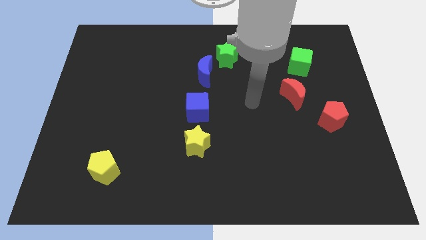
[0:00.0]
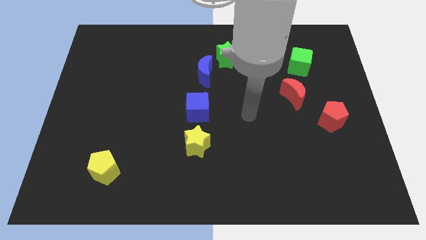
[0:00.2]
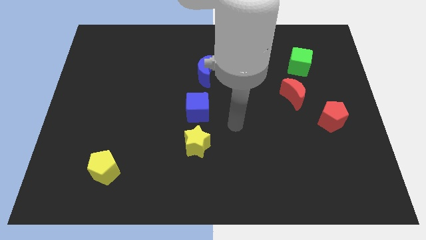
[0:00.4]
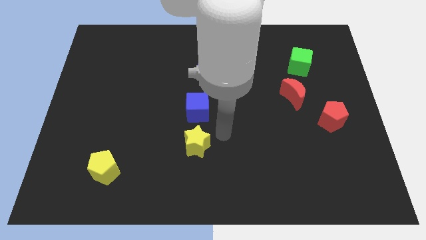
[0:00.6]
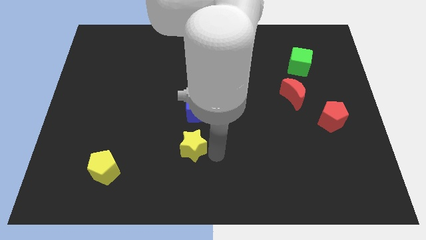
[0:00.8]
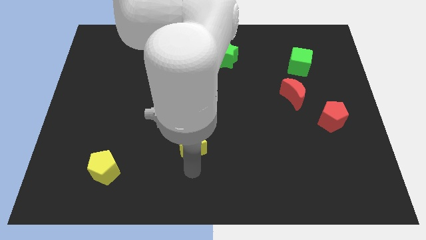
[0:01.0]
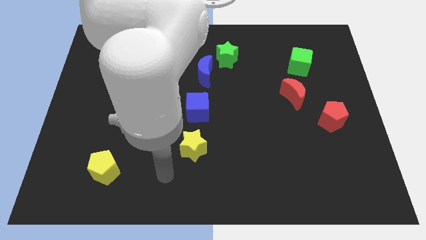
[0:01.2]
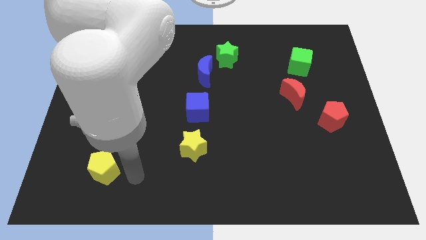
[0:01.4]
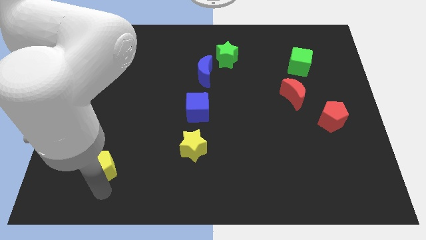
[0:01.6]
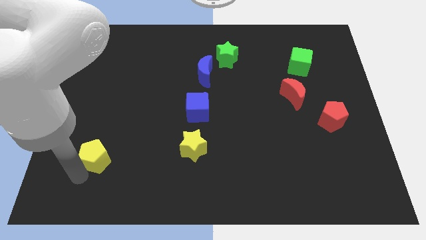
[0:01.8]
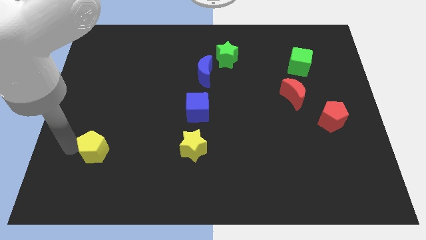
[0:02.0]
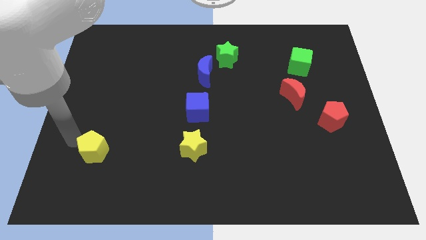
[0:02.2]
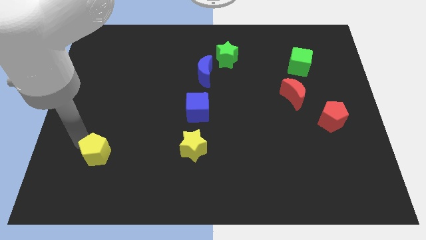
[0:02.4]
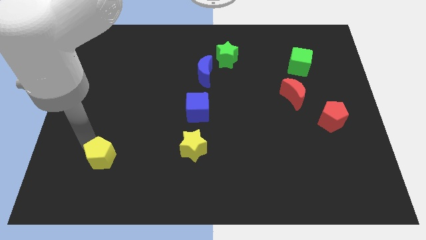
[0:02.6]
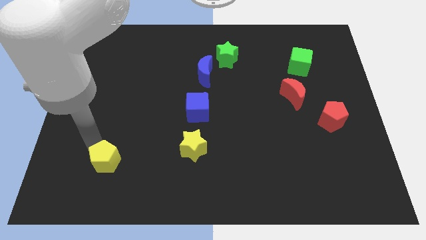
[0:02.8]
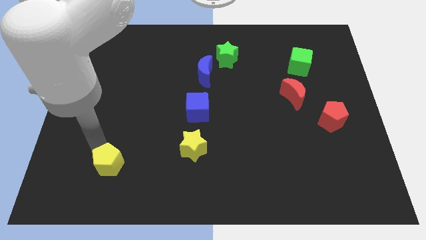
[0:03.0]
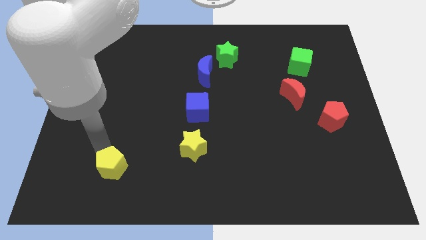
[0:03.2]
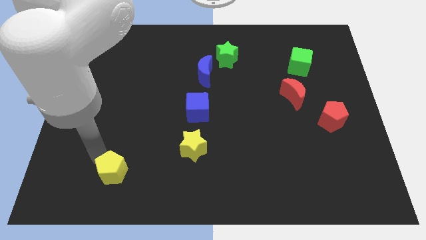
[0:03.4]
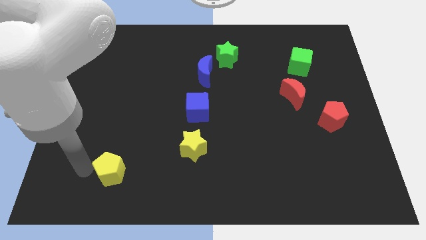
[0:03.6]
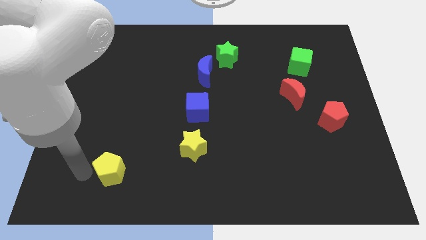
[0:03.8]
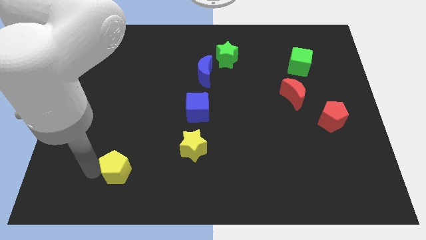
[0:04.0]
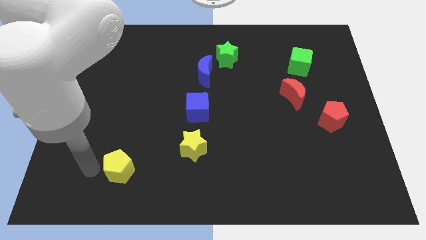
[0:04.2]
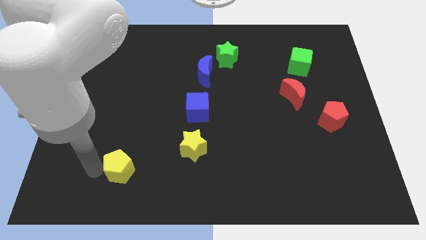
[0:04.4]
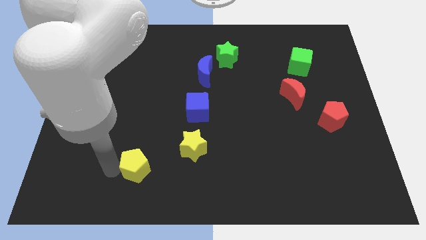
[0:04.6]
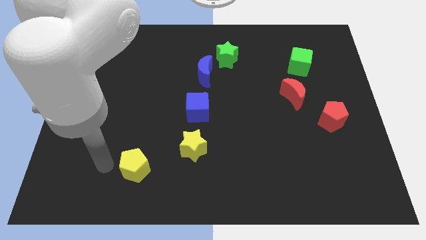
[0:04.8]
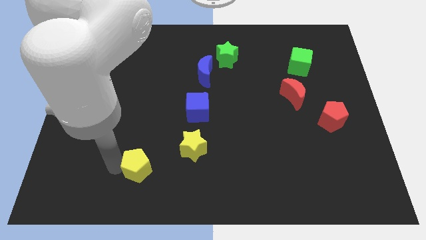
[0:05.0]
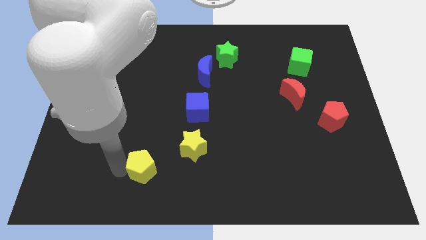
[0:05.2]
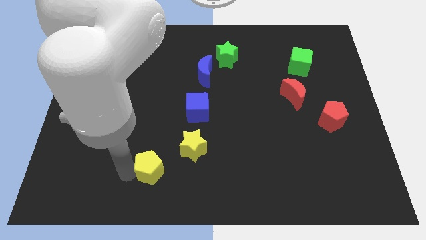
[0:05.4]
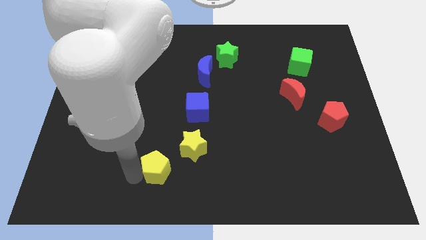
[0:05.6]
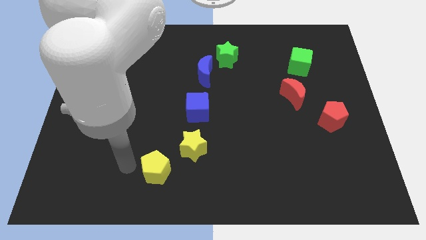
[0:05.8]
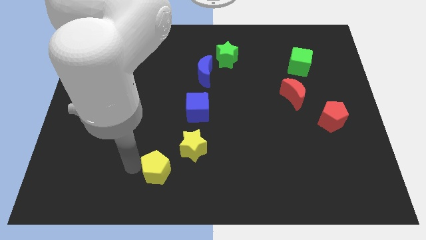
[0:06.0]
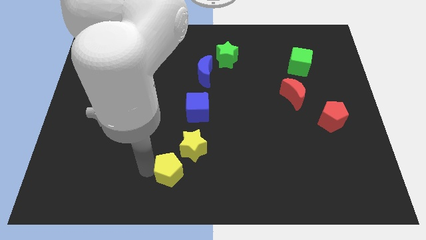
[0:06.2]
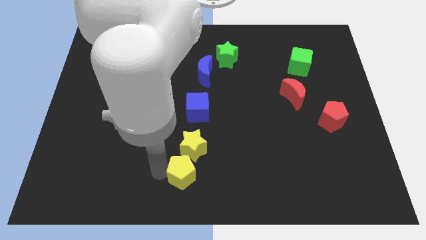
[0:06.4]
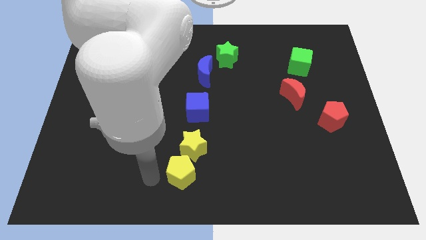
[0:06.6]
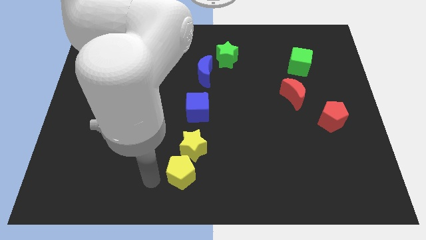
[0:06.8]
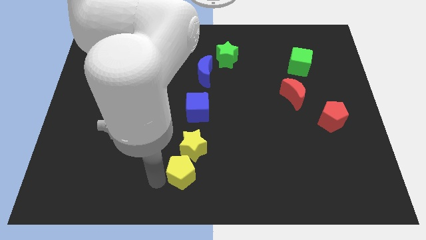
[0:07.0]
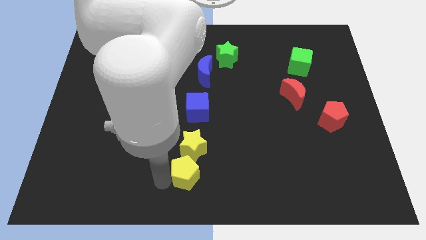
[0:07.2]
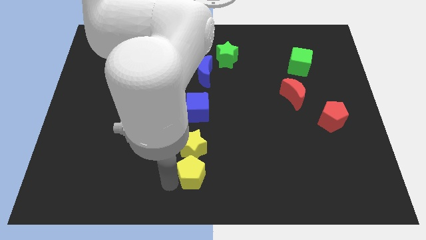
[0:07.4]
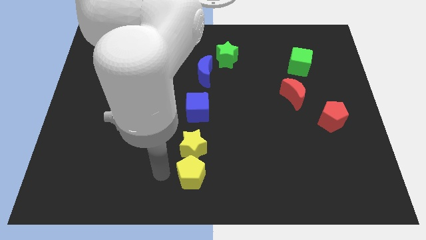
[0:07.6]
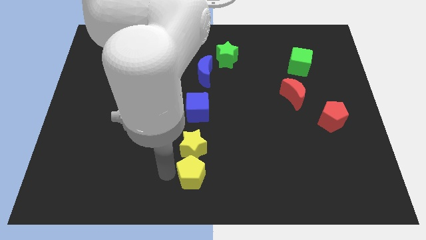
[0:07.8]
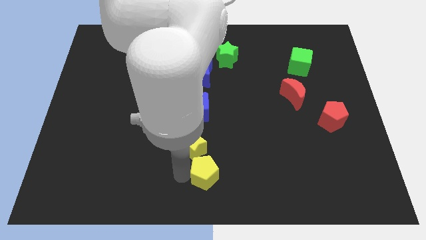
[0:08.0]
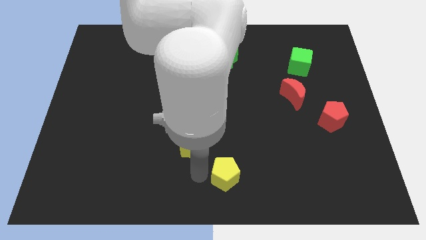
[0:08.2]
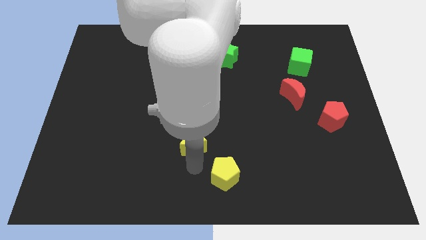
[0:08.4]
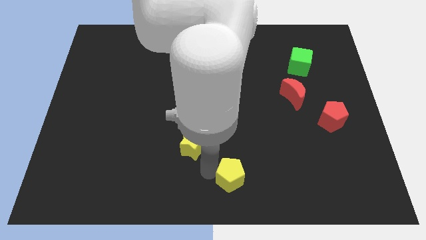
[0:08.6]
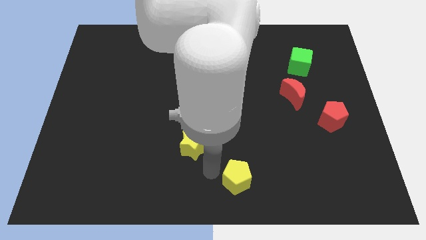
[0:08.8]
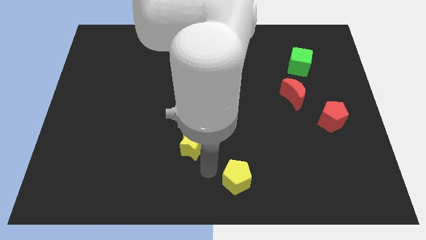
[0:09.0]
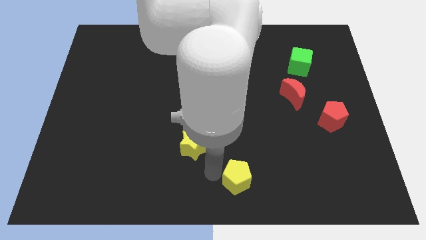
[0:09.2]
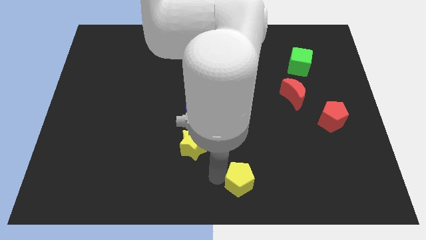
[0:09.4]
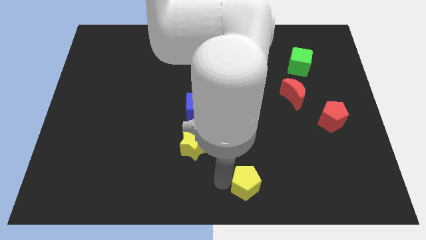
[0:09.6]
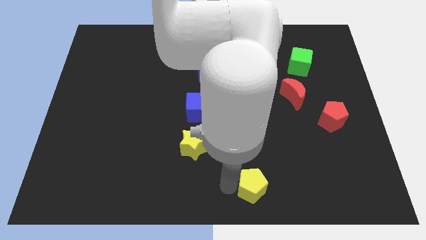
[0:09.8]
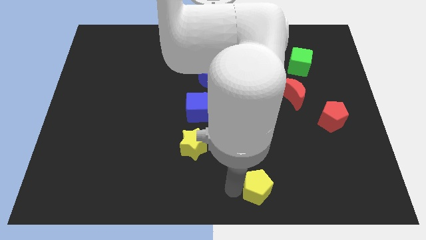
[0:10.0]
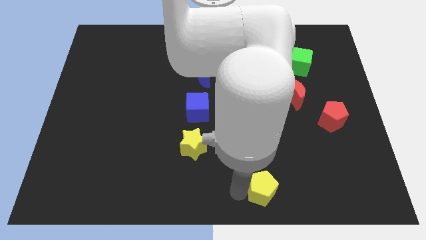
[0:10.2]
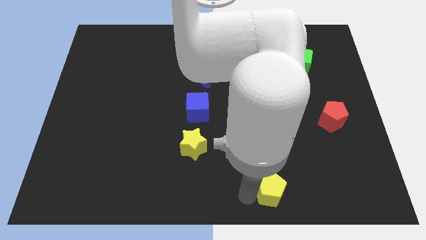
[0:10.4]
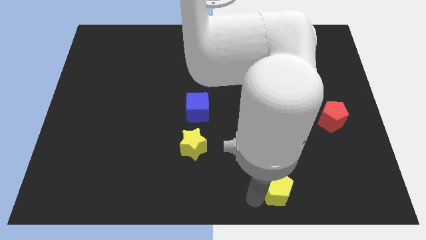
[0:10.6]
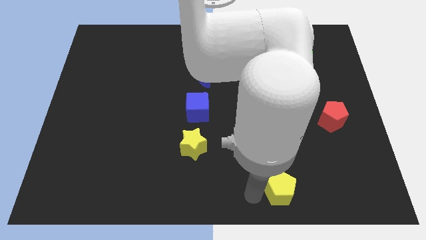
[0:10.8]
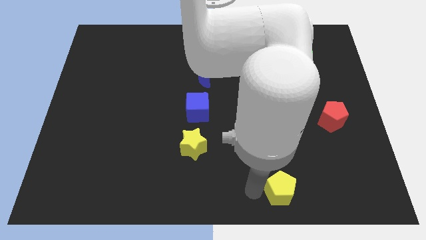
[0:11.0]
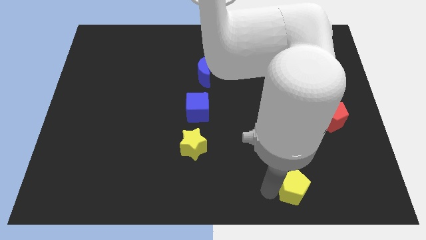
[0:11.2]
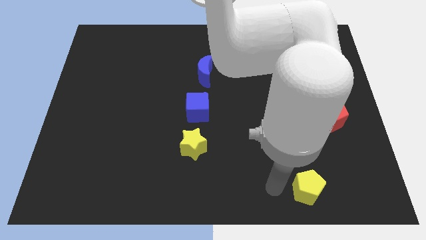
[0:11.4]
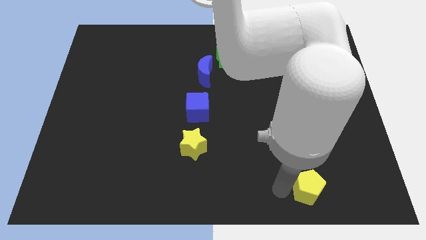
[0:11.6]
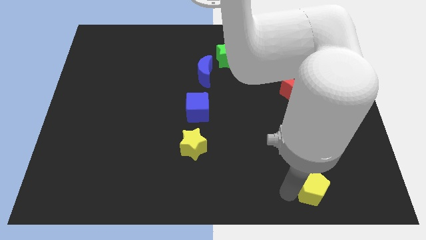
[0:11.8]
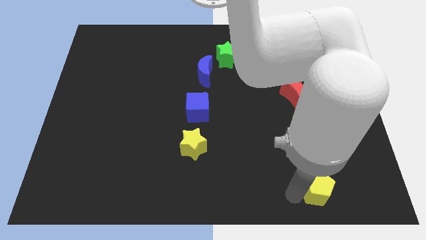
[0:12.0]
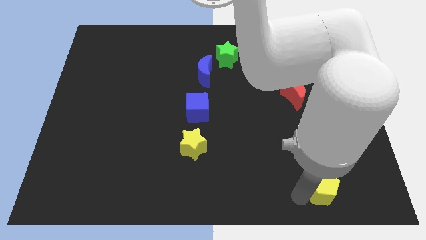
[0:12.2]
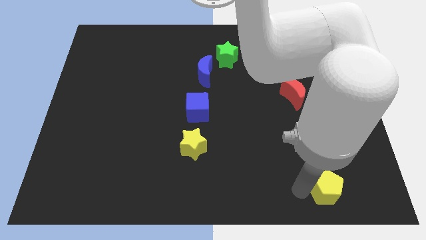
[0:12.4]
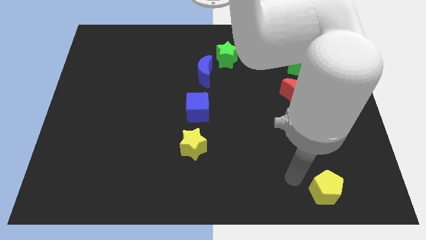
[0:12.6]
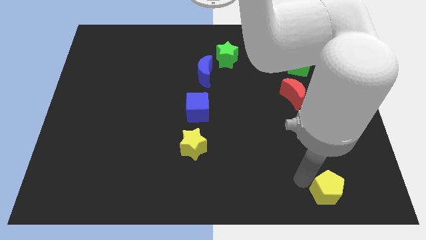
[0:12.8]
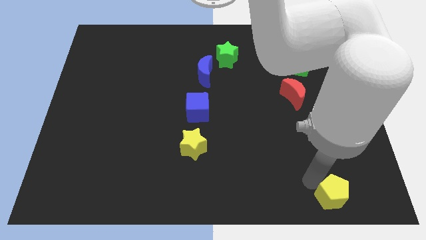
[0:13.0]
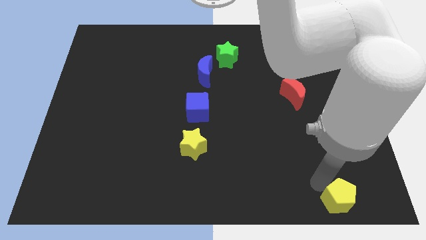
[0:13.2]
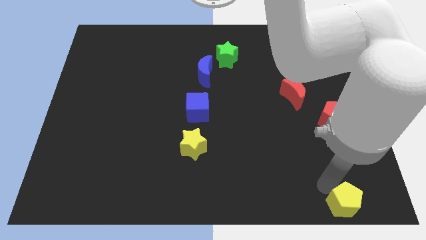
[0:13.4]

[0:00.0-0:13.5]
put the yellow pentagon to the lower right corner
